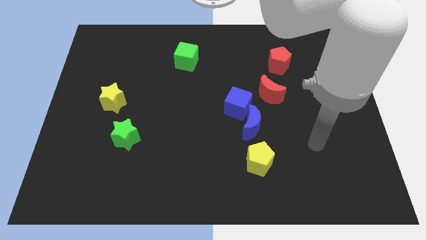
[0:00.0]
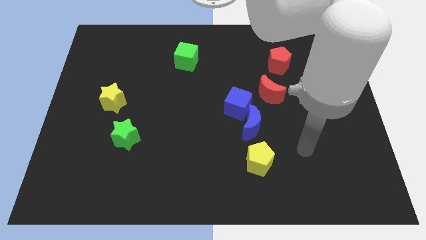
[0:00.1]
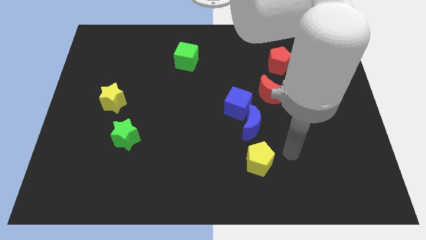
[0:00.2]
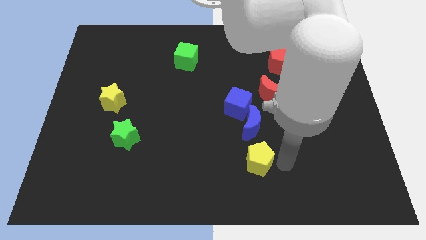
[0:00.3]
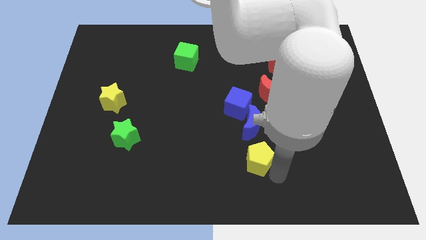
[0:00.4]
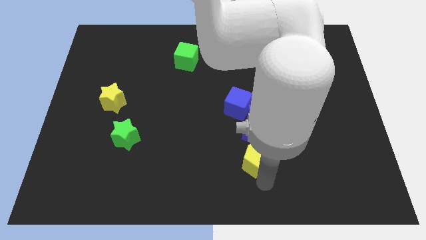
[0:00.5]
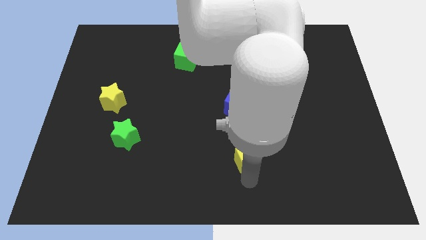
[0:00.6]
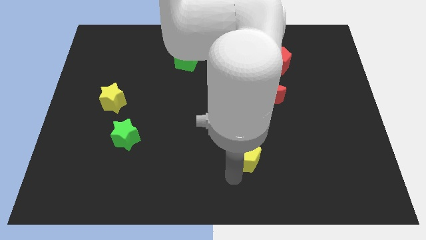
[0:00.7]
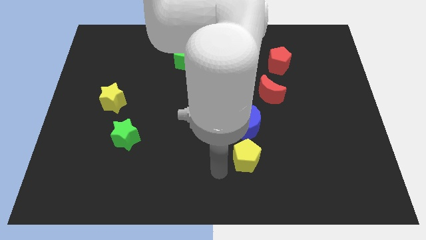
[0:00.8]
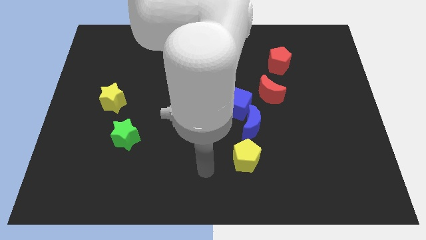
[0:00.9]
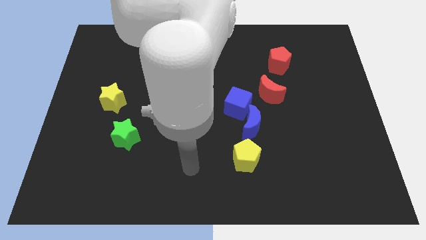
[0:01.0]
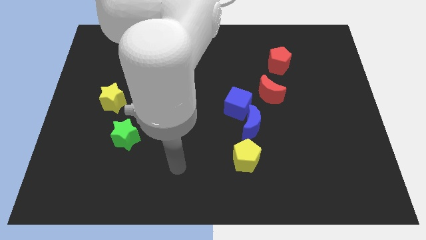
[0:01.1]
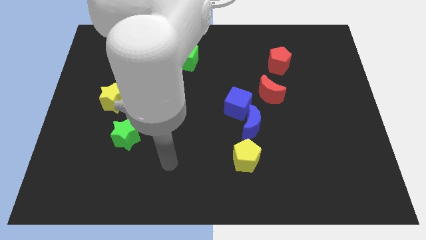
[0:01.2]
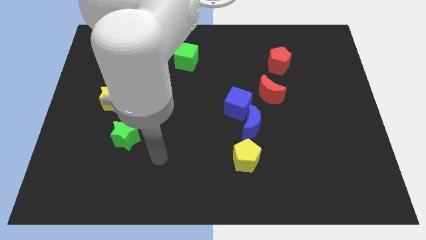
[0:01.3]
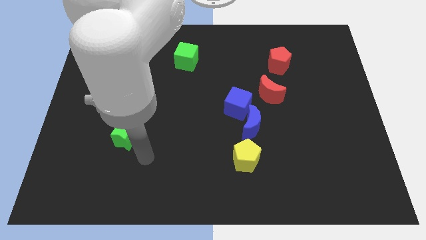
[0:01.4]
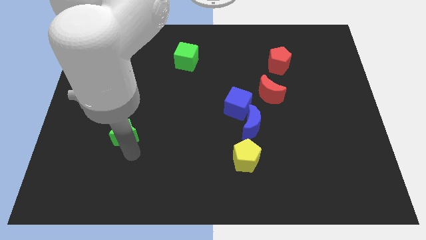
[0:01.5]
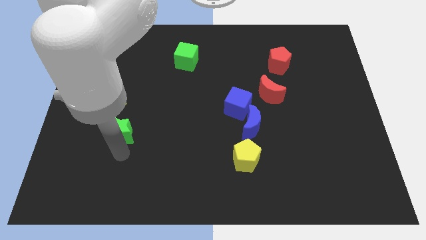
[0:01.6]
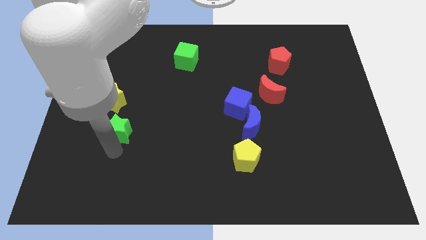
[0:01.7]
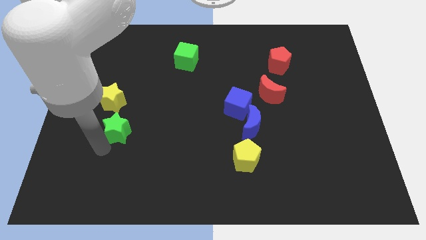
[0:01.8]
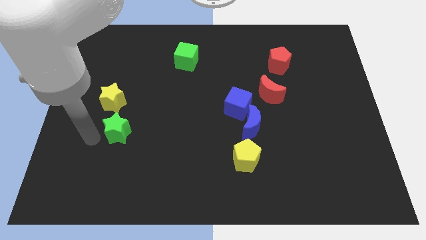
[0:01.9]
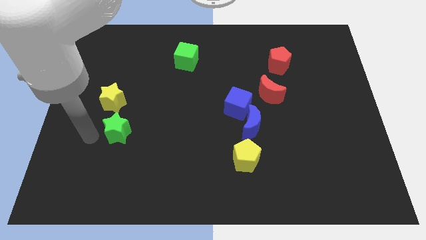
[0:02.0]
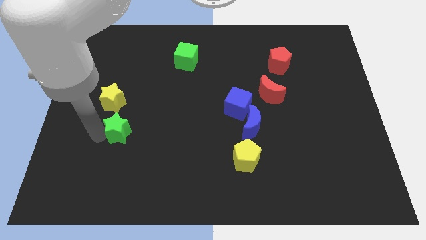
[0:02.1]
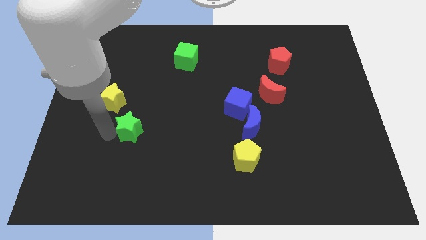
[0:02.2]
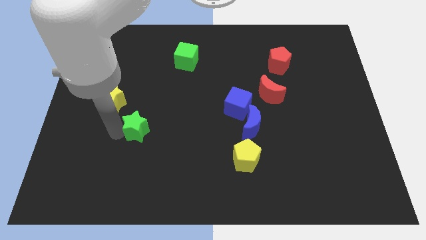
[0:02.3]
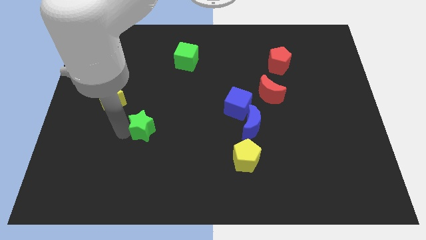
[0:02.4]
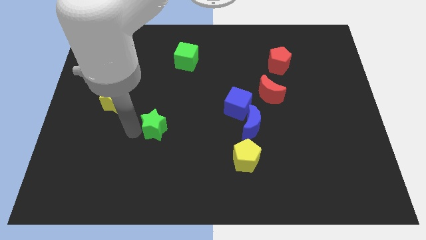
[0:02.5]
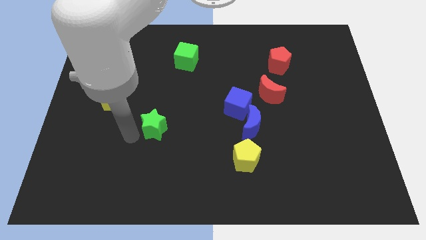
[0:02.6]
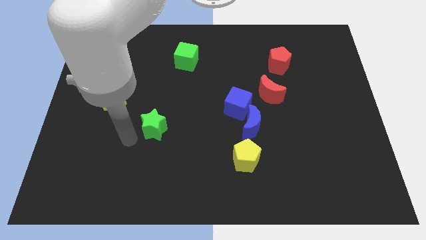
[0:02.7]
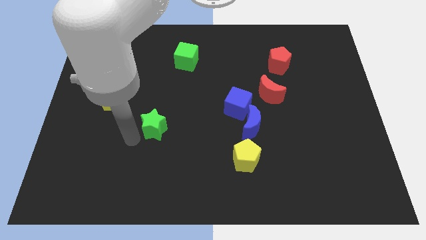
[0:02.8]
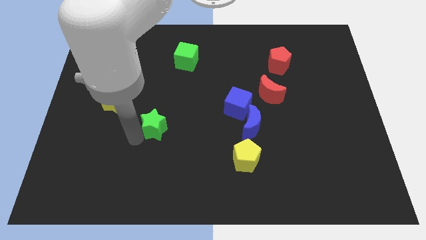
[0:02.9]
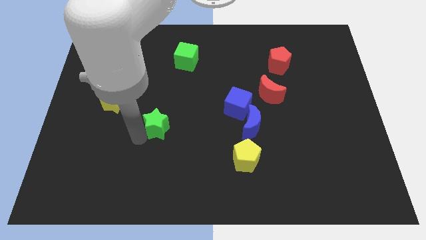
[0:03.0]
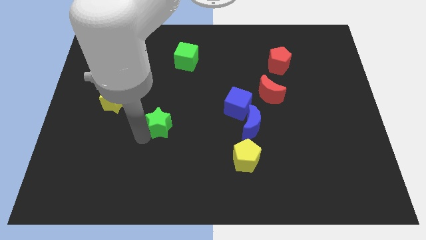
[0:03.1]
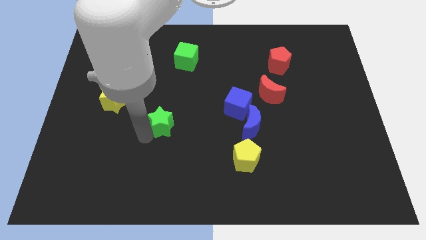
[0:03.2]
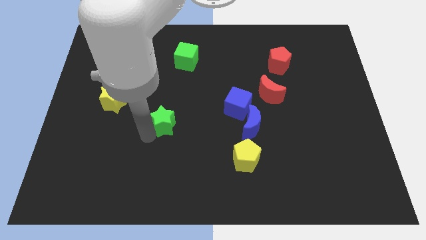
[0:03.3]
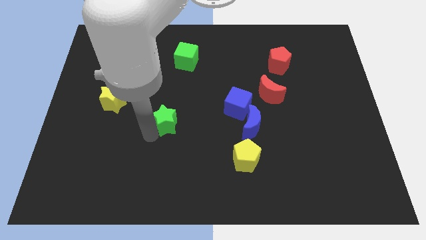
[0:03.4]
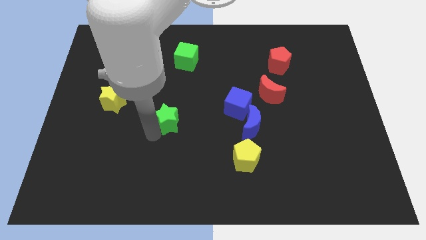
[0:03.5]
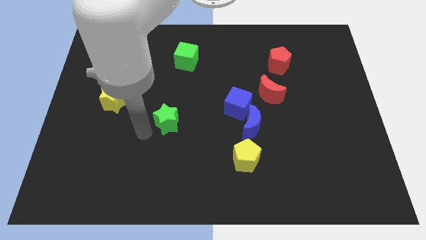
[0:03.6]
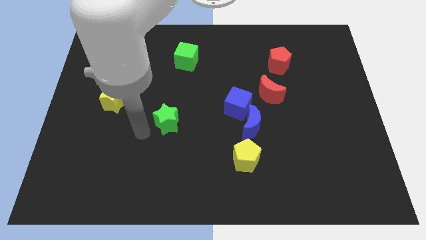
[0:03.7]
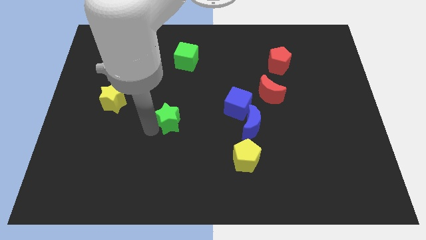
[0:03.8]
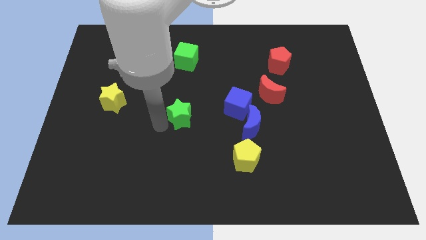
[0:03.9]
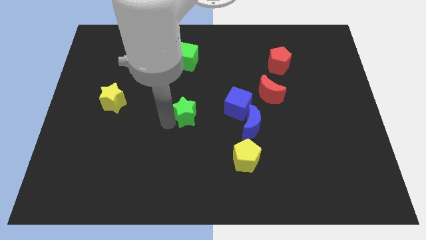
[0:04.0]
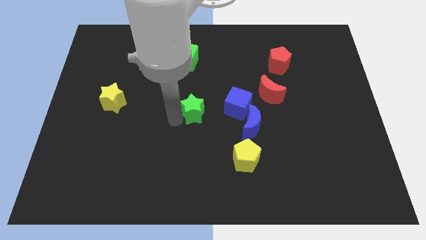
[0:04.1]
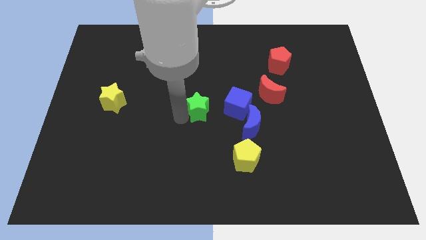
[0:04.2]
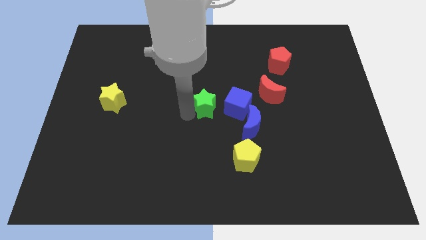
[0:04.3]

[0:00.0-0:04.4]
slide the green star to the top left of the blue moon

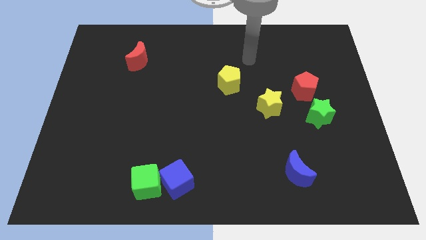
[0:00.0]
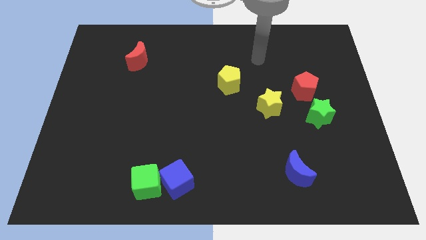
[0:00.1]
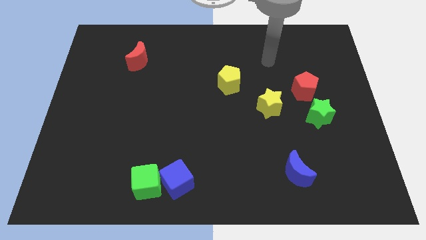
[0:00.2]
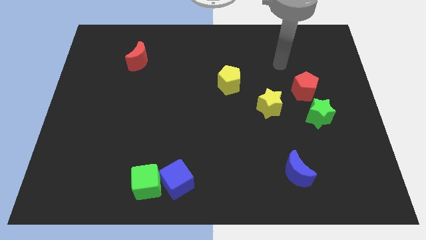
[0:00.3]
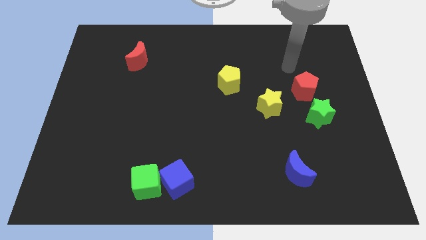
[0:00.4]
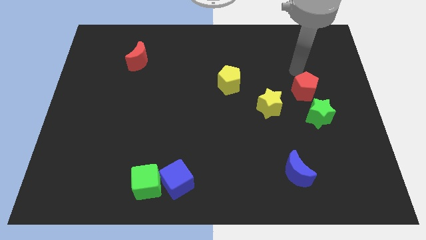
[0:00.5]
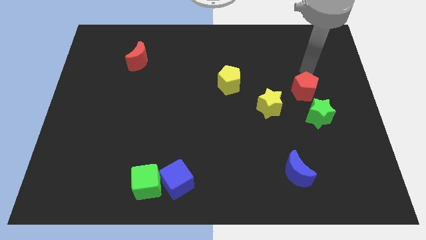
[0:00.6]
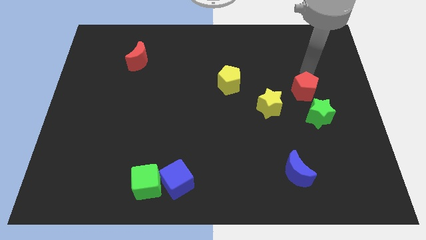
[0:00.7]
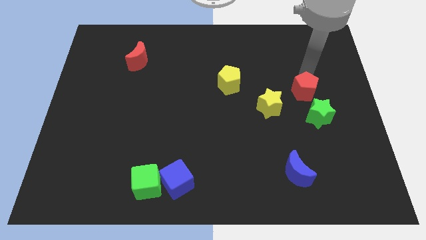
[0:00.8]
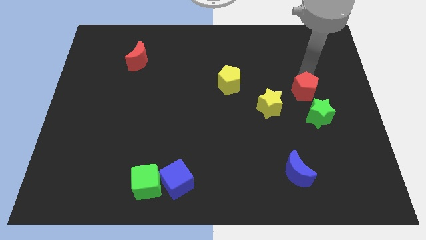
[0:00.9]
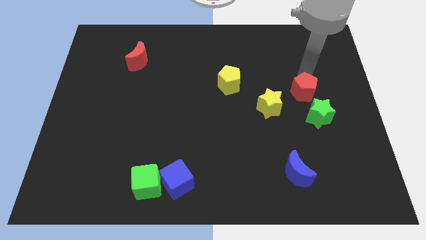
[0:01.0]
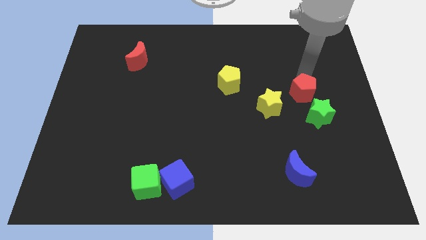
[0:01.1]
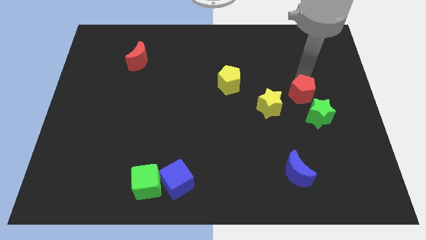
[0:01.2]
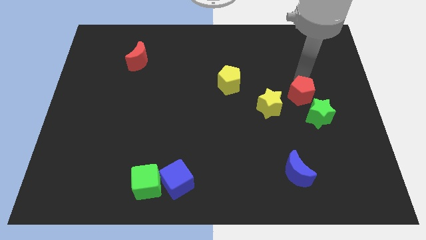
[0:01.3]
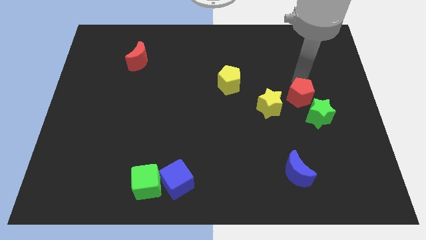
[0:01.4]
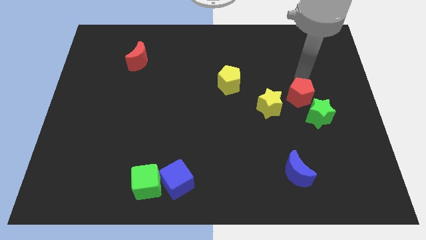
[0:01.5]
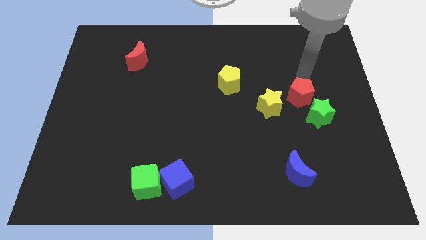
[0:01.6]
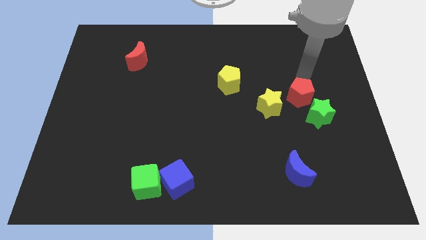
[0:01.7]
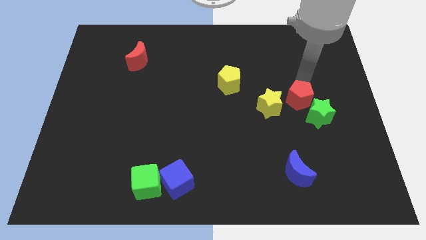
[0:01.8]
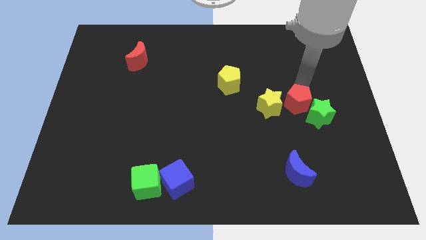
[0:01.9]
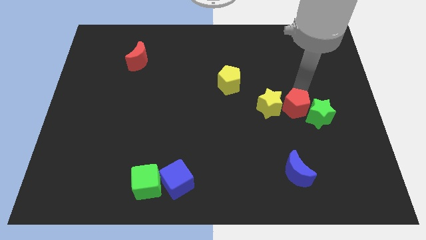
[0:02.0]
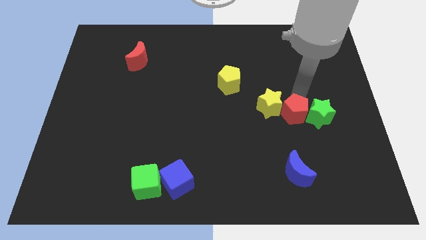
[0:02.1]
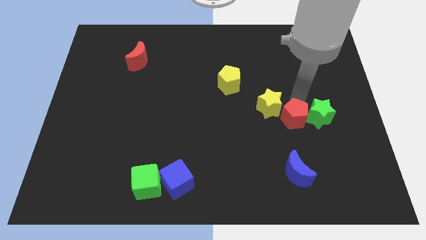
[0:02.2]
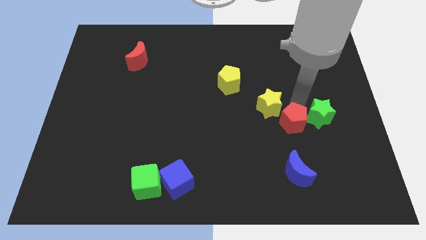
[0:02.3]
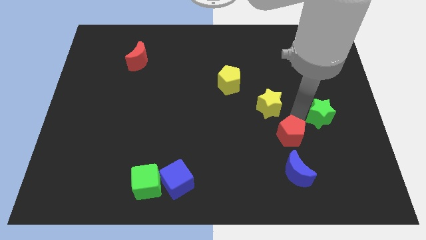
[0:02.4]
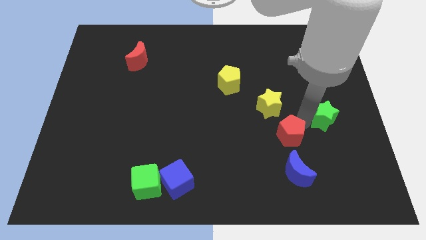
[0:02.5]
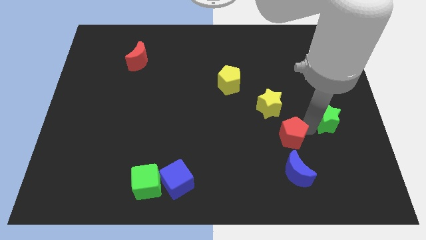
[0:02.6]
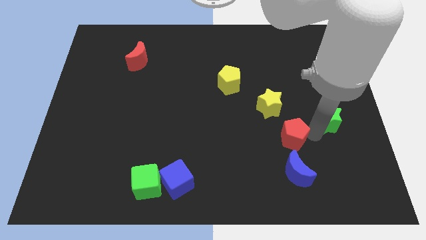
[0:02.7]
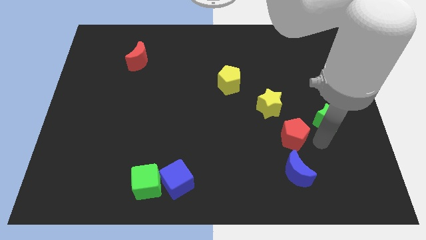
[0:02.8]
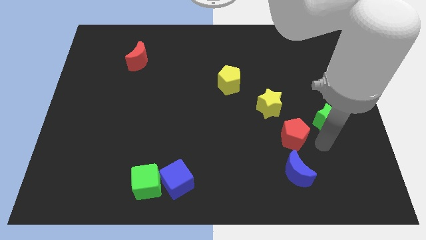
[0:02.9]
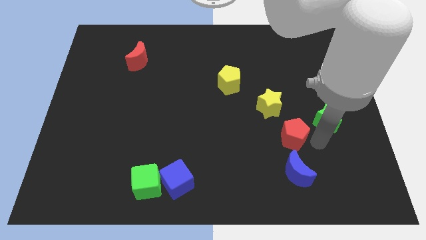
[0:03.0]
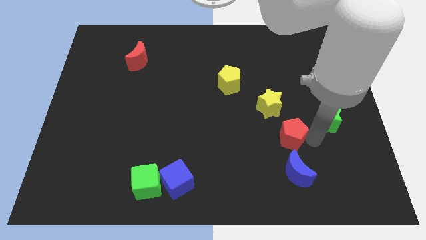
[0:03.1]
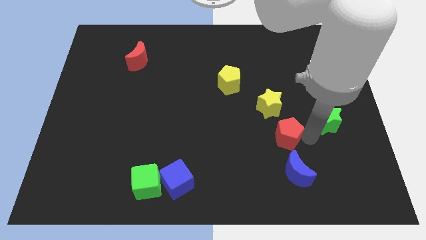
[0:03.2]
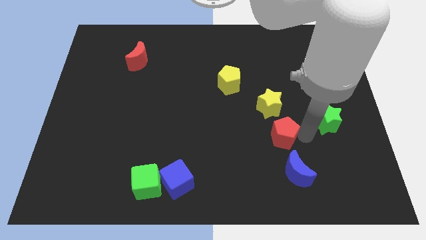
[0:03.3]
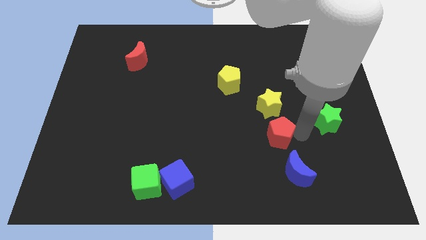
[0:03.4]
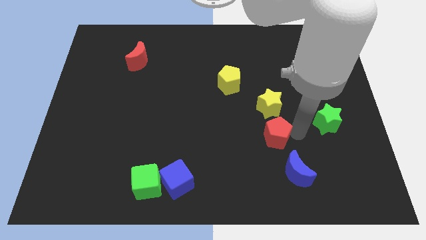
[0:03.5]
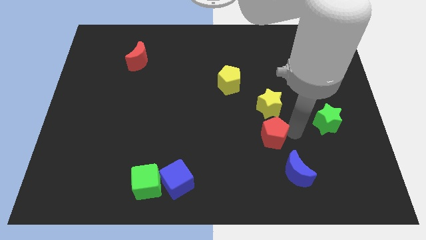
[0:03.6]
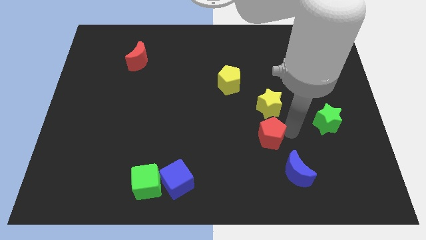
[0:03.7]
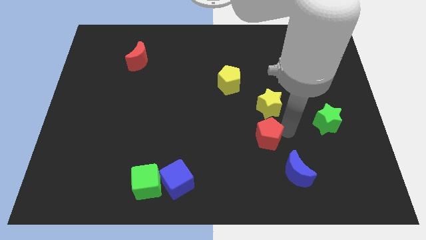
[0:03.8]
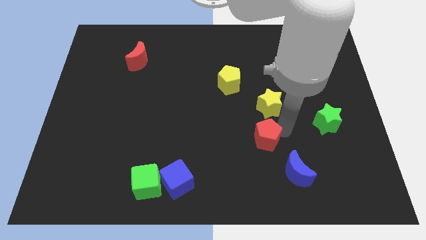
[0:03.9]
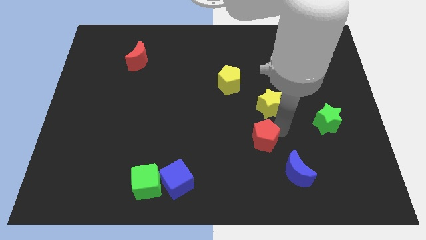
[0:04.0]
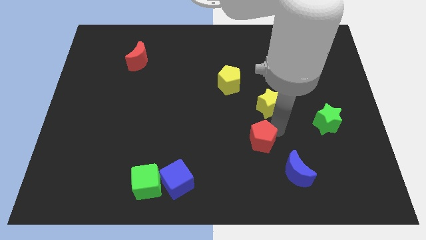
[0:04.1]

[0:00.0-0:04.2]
slide the red pentagon to the bottom left of the yellow star
